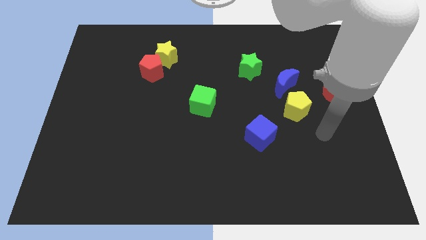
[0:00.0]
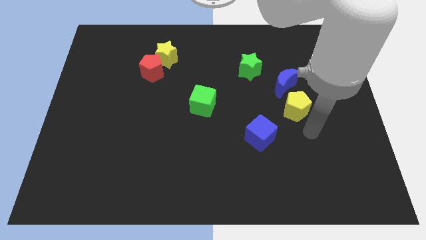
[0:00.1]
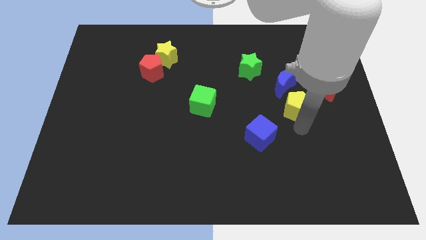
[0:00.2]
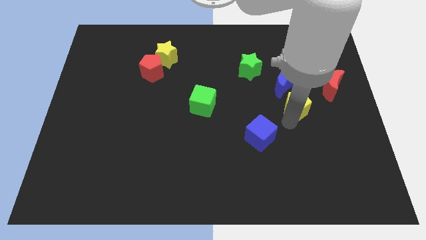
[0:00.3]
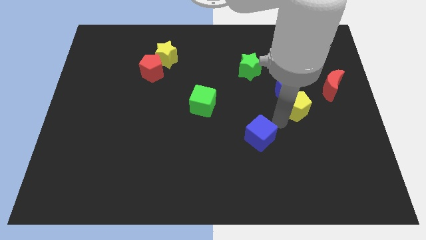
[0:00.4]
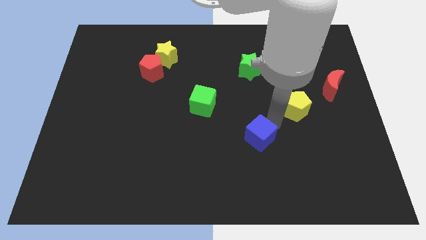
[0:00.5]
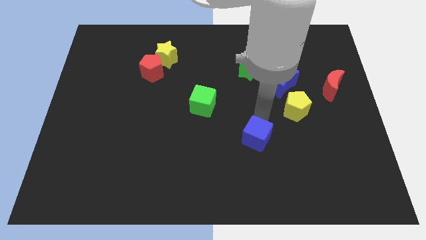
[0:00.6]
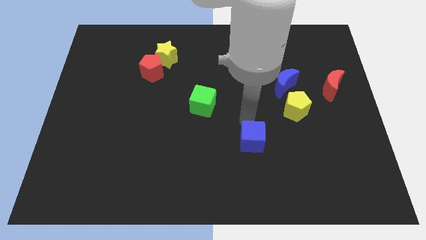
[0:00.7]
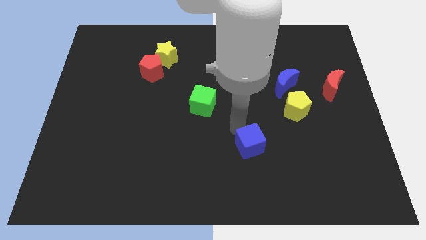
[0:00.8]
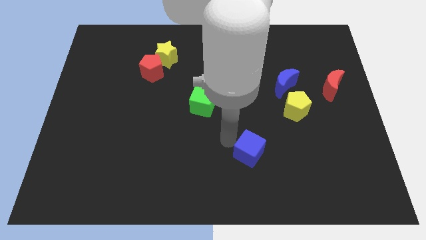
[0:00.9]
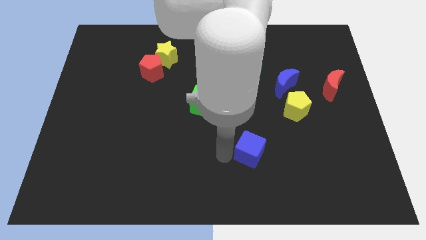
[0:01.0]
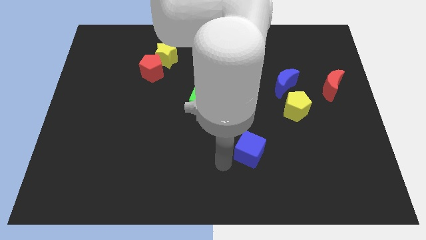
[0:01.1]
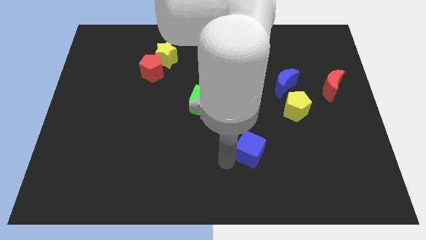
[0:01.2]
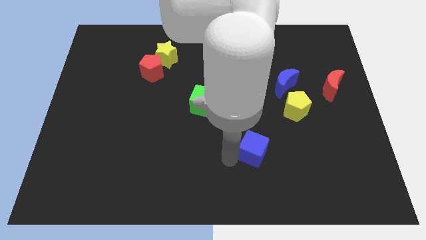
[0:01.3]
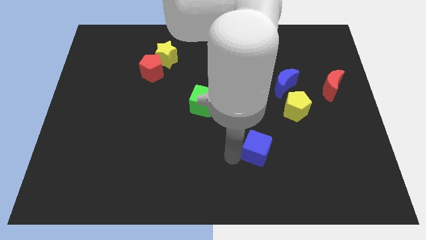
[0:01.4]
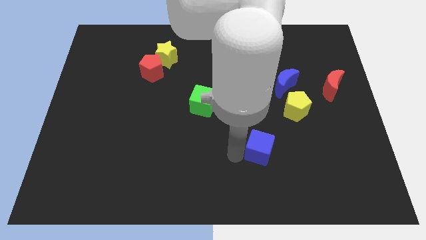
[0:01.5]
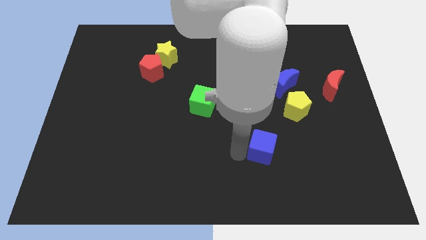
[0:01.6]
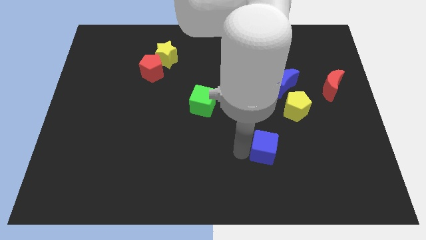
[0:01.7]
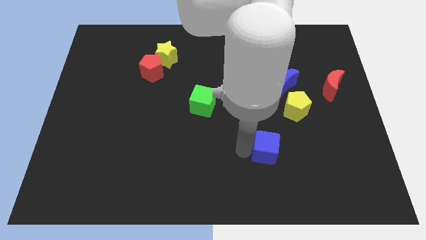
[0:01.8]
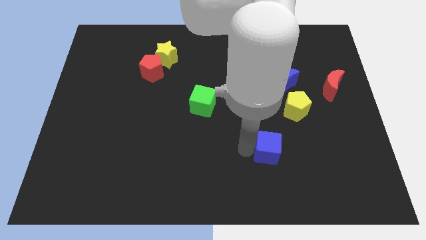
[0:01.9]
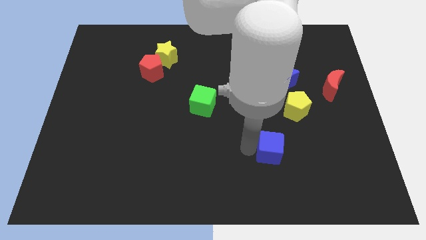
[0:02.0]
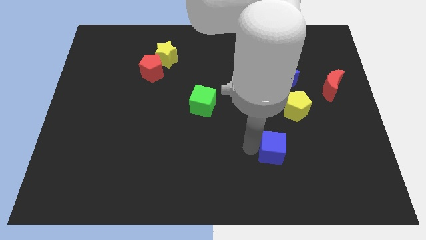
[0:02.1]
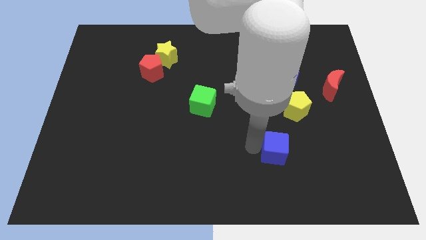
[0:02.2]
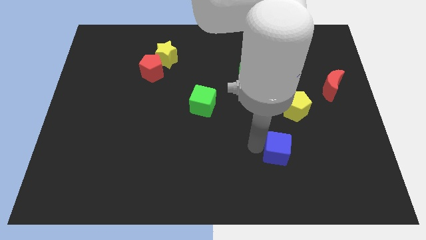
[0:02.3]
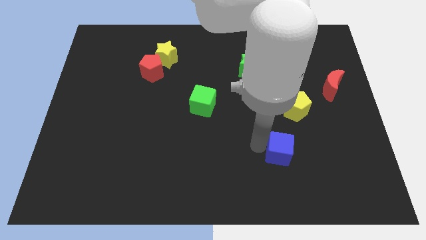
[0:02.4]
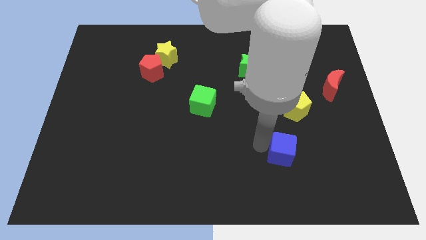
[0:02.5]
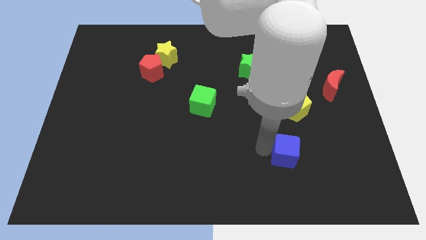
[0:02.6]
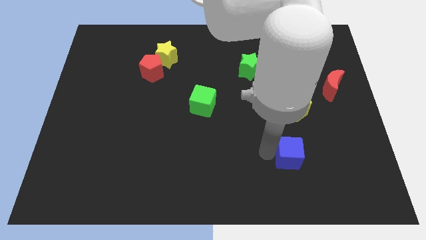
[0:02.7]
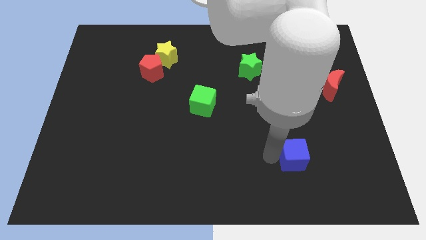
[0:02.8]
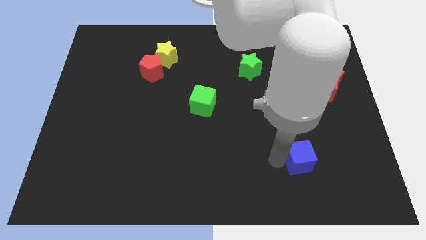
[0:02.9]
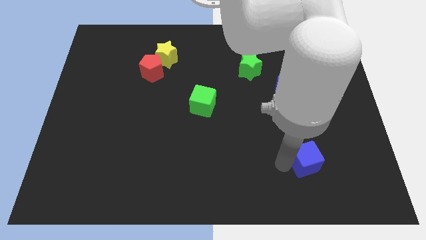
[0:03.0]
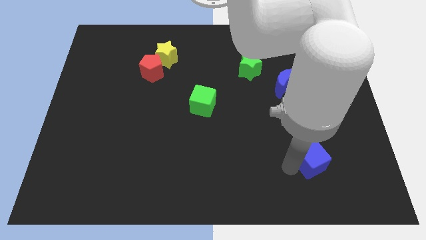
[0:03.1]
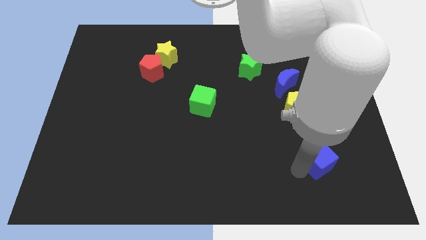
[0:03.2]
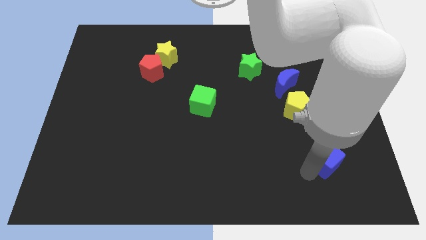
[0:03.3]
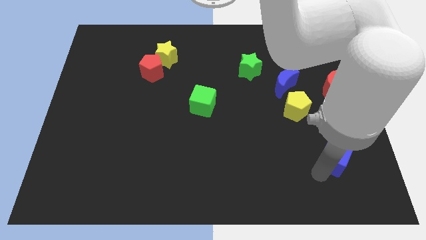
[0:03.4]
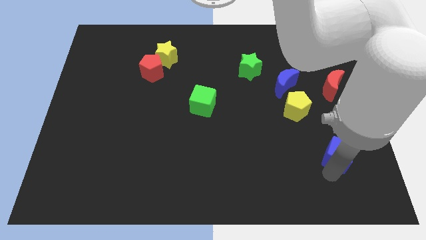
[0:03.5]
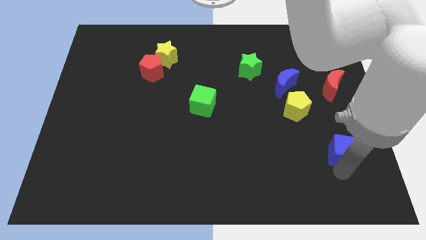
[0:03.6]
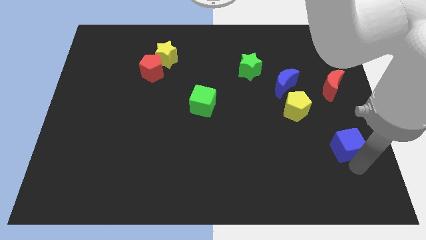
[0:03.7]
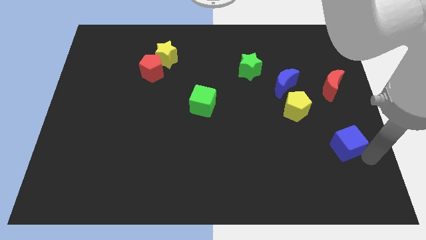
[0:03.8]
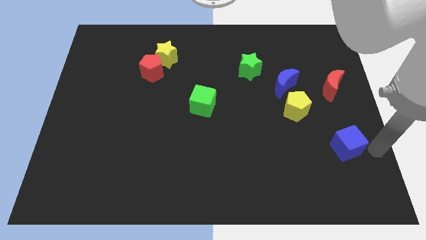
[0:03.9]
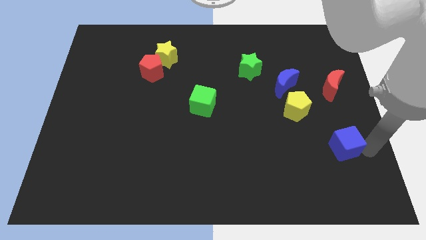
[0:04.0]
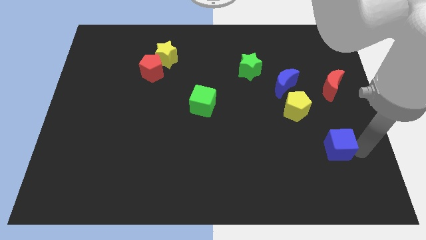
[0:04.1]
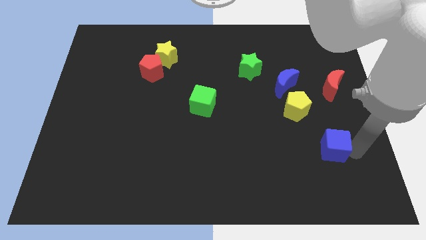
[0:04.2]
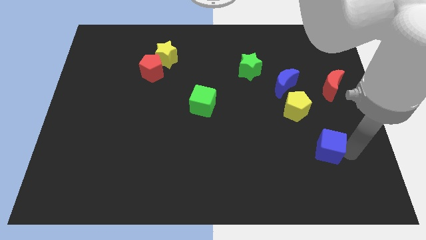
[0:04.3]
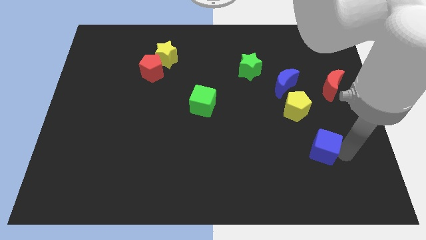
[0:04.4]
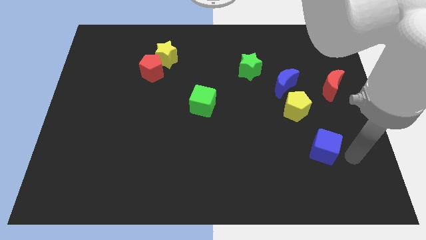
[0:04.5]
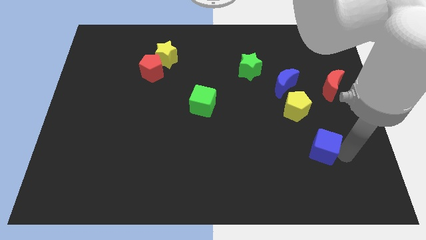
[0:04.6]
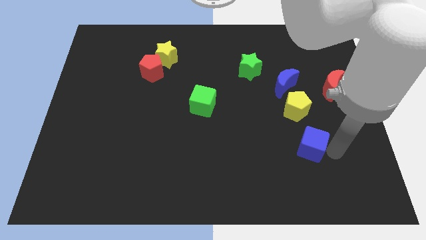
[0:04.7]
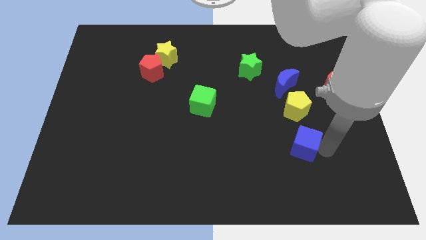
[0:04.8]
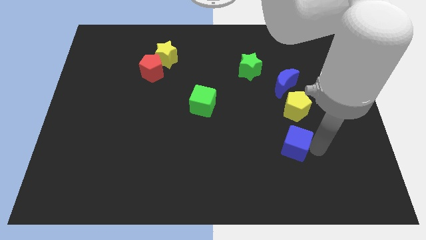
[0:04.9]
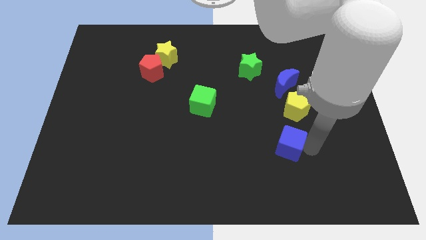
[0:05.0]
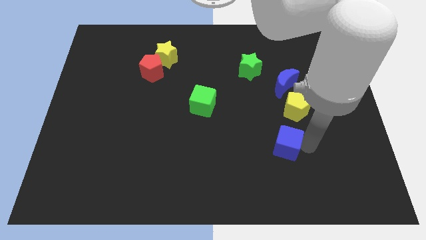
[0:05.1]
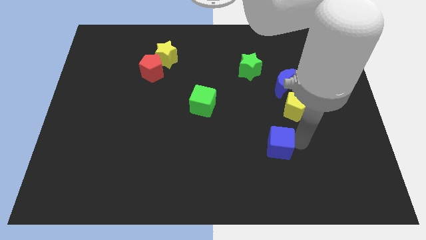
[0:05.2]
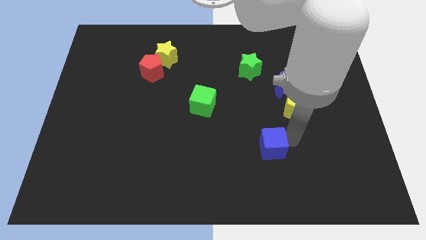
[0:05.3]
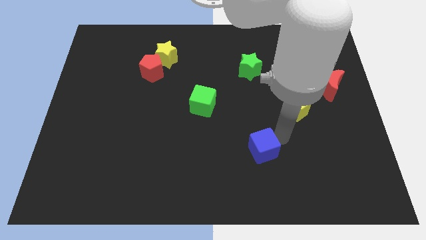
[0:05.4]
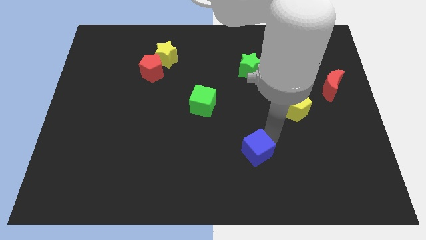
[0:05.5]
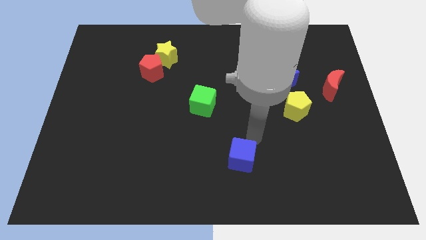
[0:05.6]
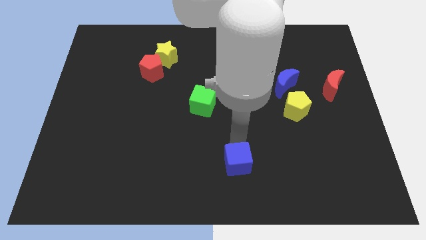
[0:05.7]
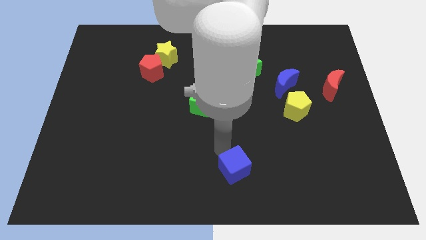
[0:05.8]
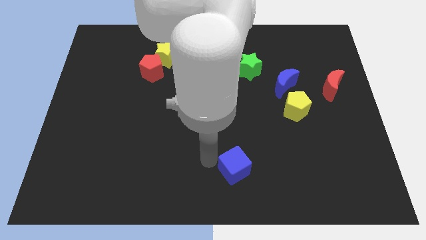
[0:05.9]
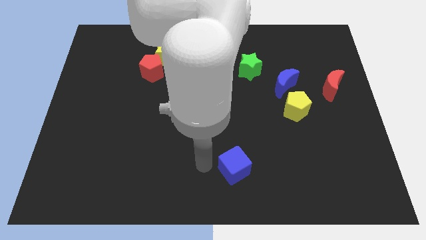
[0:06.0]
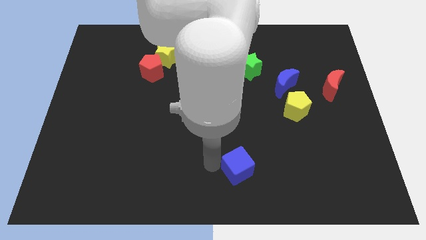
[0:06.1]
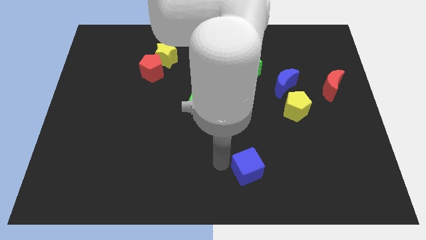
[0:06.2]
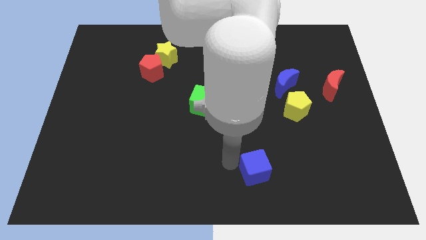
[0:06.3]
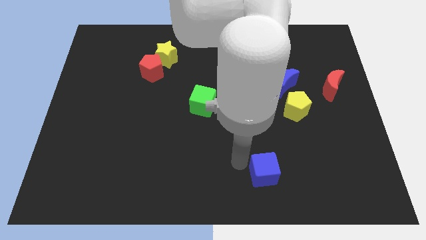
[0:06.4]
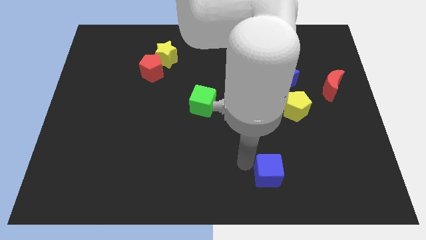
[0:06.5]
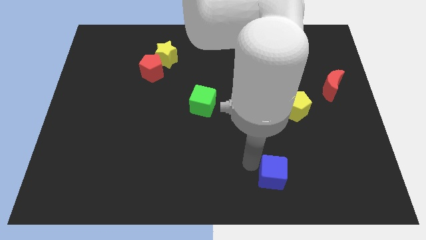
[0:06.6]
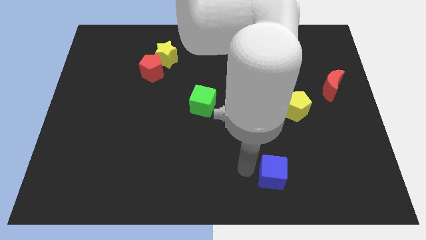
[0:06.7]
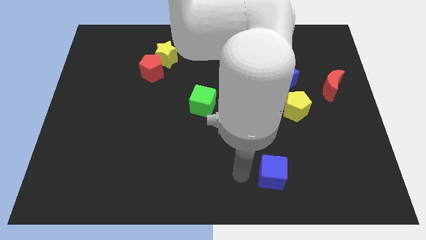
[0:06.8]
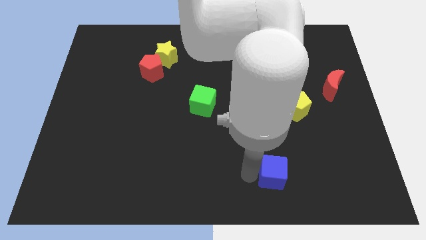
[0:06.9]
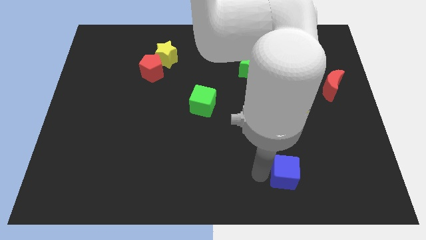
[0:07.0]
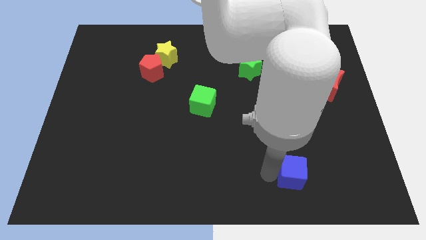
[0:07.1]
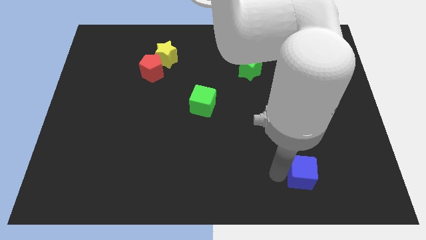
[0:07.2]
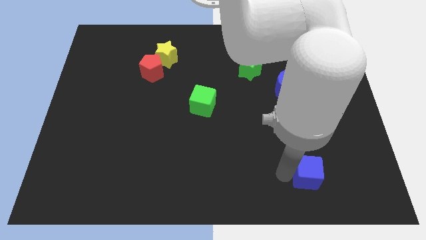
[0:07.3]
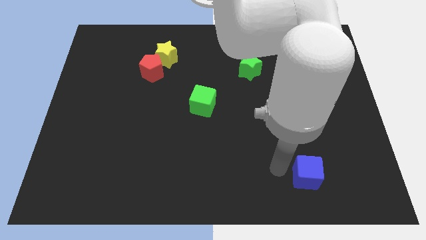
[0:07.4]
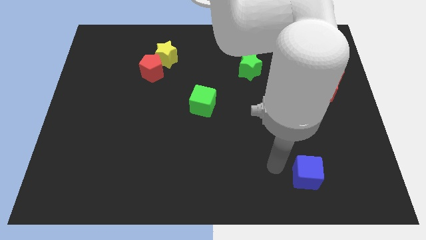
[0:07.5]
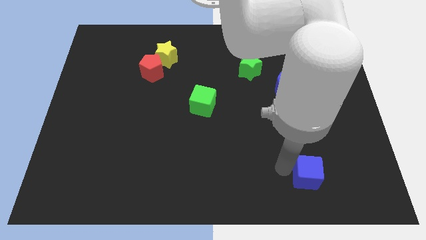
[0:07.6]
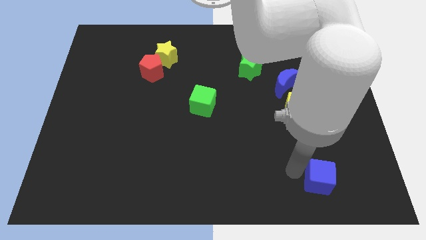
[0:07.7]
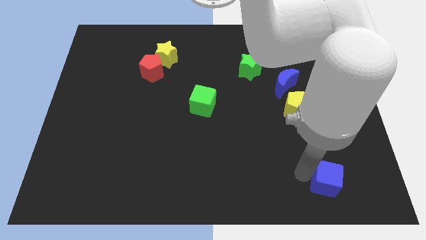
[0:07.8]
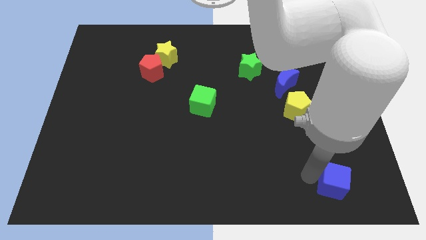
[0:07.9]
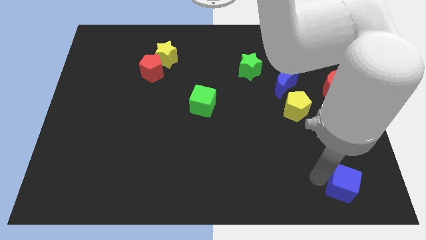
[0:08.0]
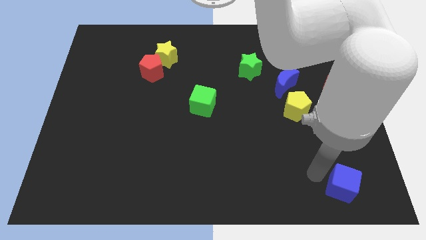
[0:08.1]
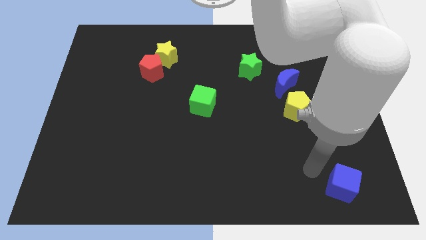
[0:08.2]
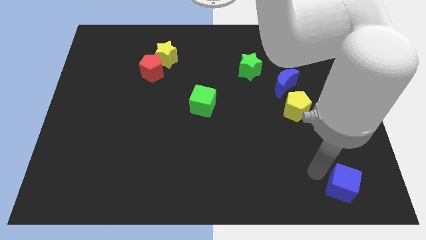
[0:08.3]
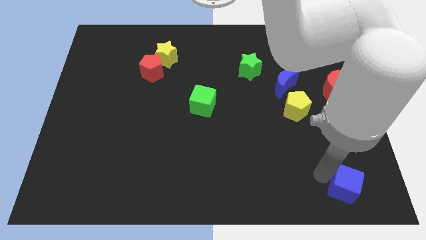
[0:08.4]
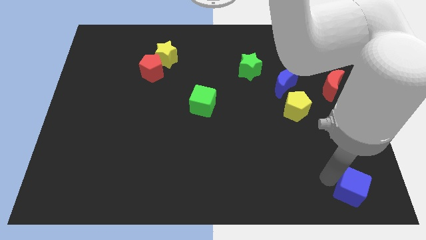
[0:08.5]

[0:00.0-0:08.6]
slide the blue cube to the bottom right
